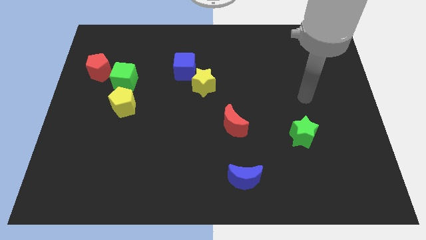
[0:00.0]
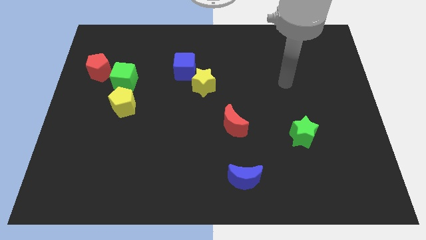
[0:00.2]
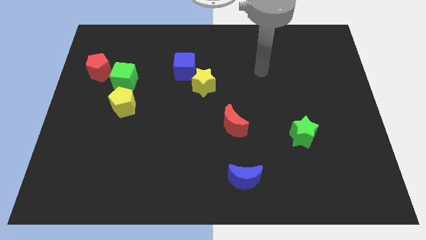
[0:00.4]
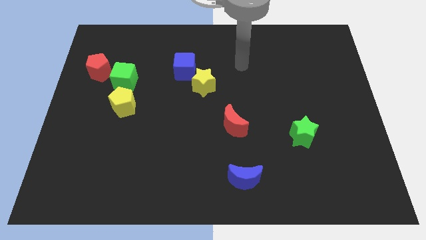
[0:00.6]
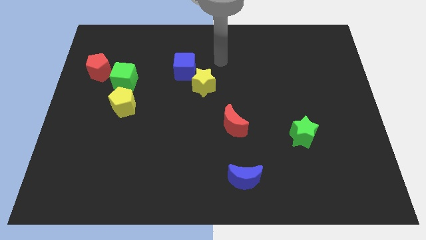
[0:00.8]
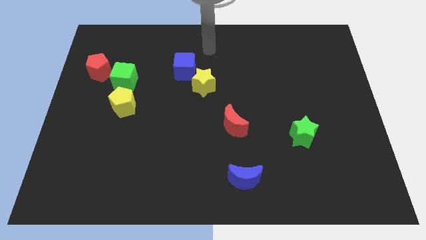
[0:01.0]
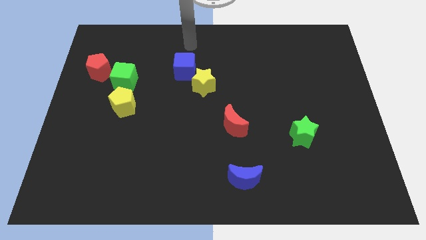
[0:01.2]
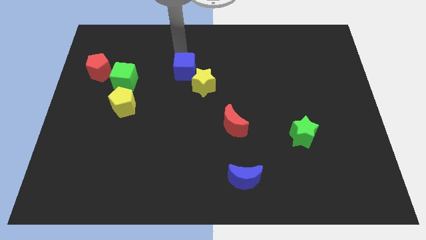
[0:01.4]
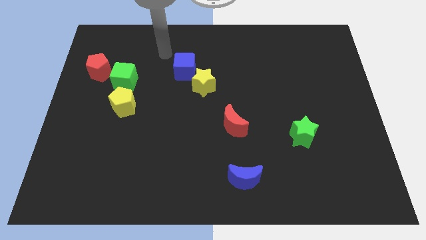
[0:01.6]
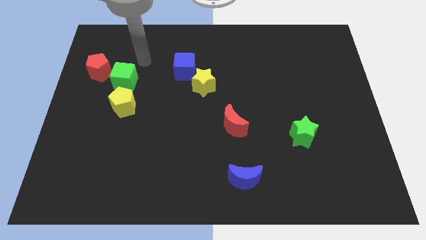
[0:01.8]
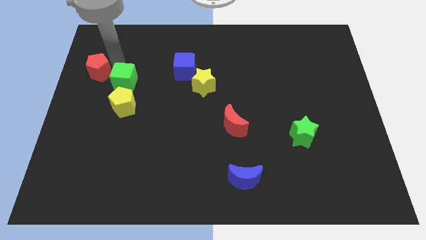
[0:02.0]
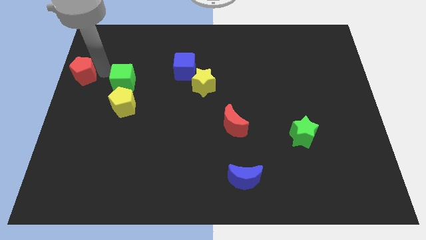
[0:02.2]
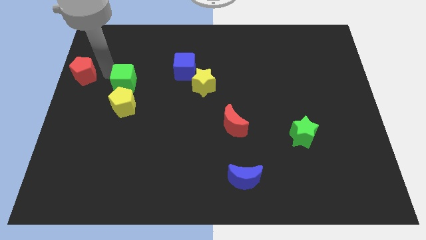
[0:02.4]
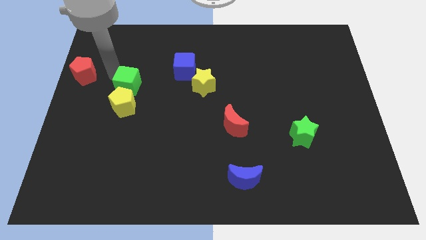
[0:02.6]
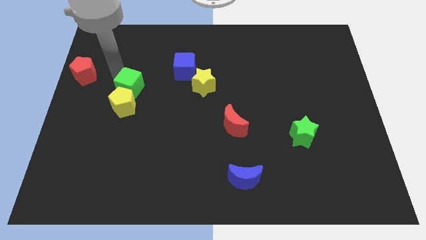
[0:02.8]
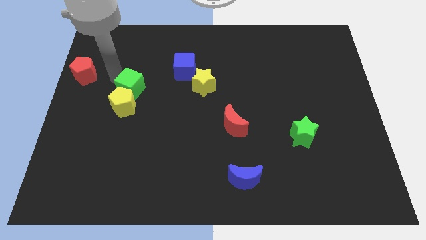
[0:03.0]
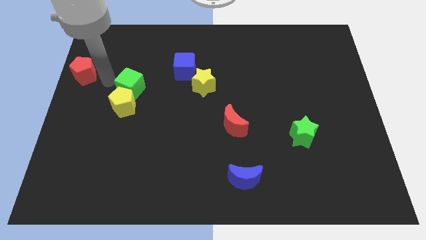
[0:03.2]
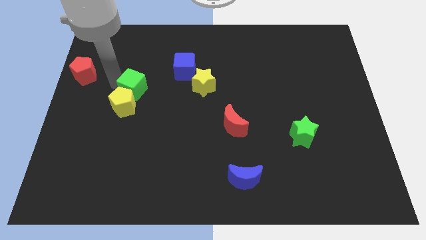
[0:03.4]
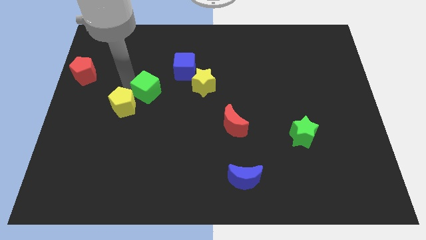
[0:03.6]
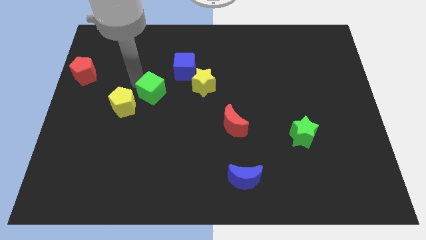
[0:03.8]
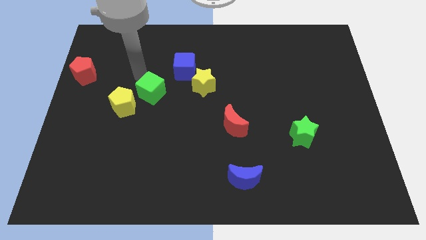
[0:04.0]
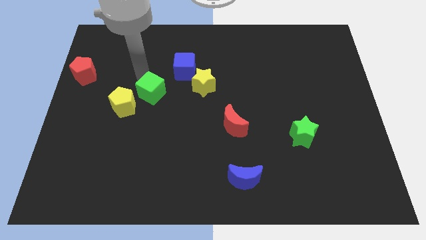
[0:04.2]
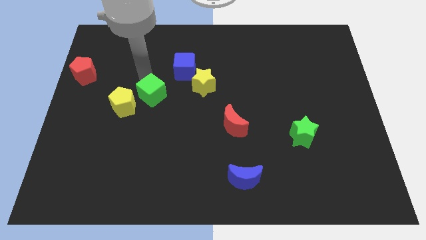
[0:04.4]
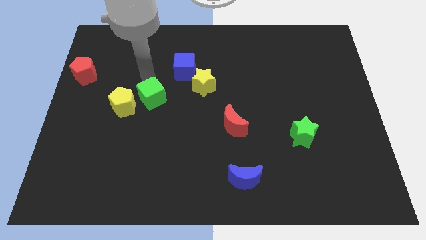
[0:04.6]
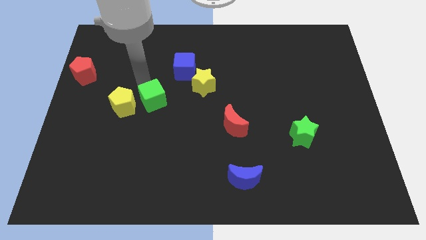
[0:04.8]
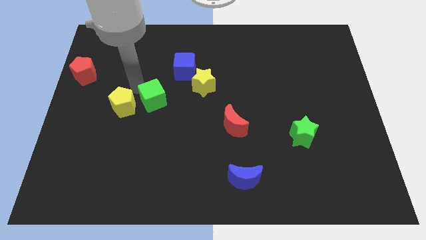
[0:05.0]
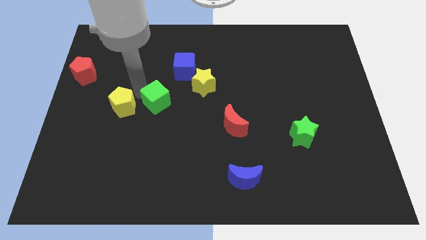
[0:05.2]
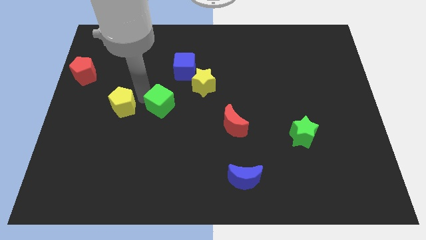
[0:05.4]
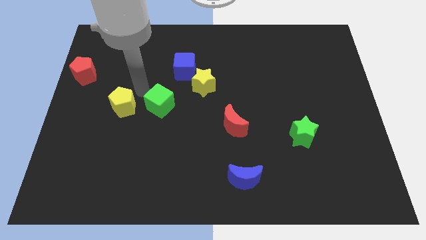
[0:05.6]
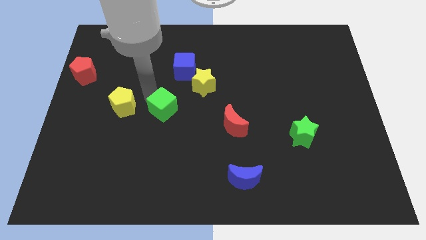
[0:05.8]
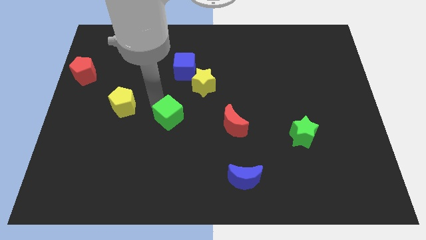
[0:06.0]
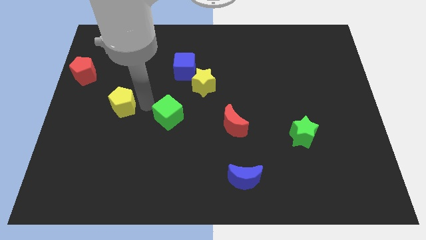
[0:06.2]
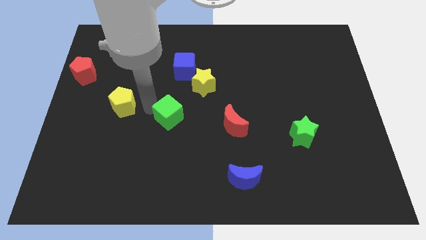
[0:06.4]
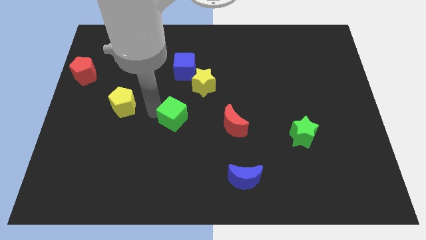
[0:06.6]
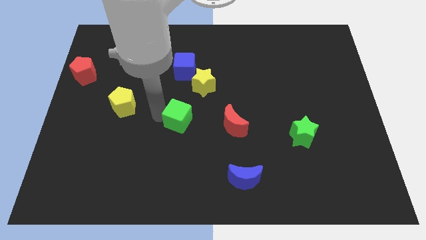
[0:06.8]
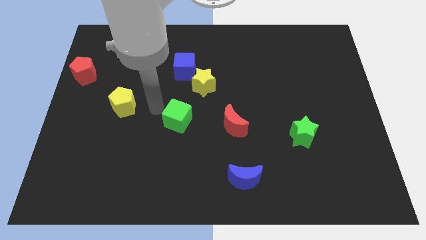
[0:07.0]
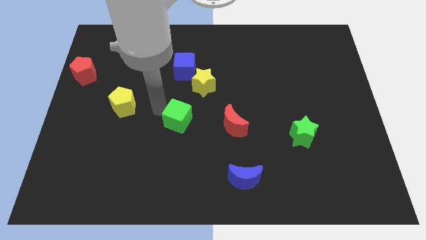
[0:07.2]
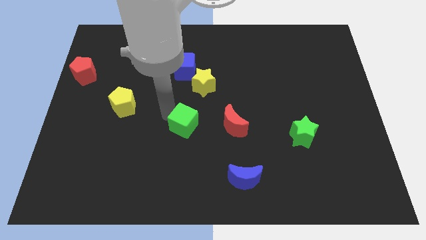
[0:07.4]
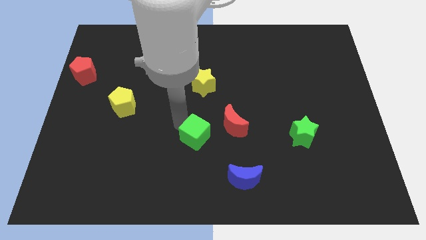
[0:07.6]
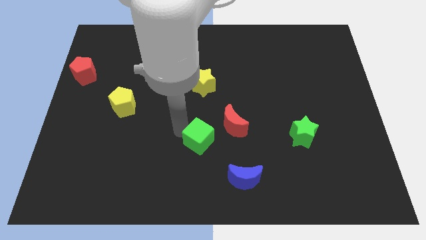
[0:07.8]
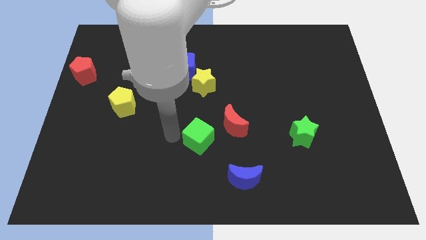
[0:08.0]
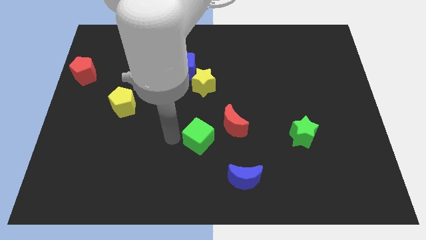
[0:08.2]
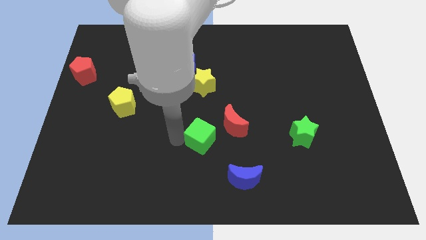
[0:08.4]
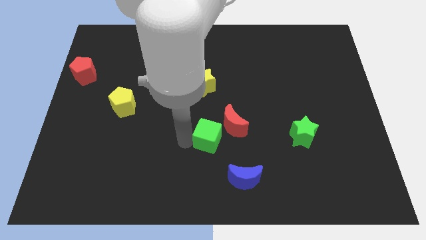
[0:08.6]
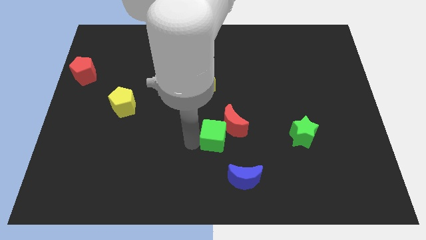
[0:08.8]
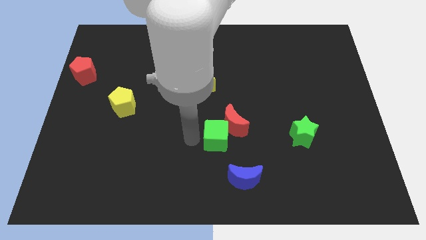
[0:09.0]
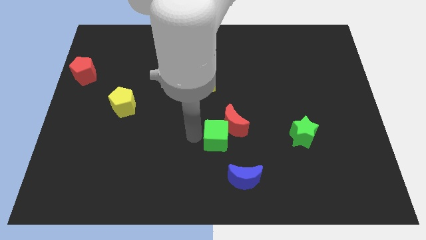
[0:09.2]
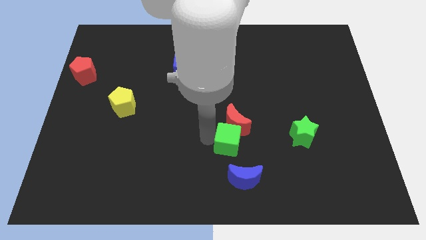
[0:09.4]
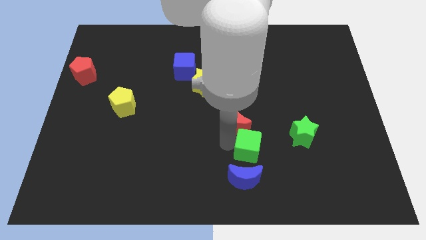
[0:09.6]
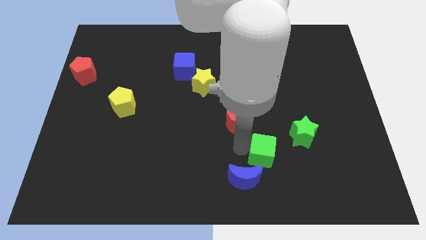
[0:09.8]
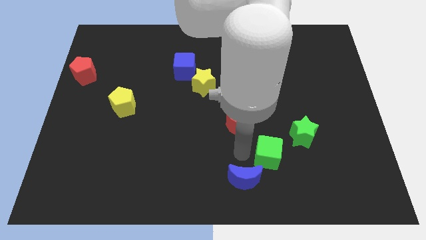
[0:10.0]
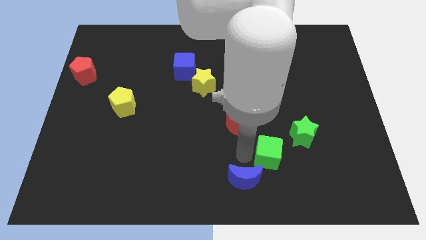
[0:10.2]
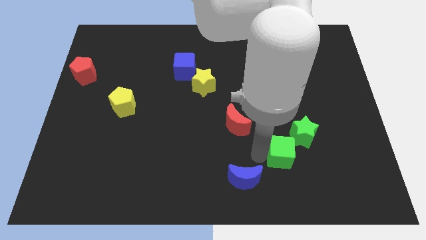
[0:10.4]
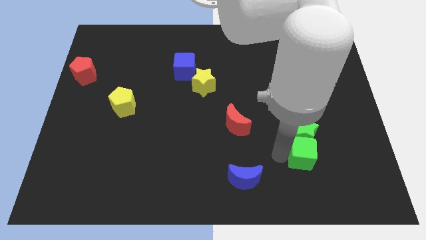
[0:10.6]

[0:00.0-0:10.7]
push the green cube diagonally down and to the right of the green star

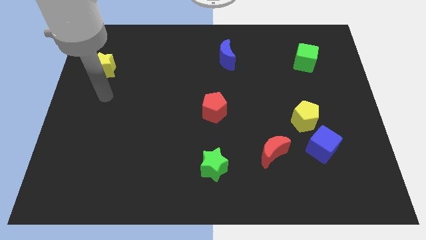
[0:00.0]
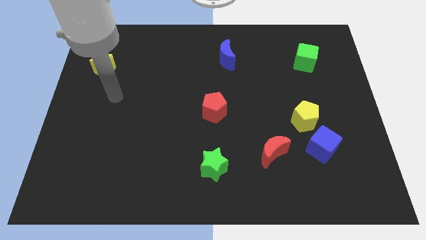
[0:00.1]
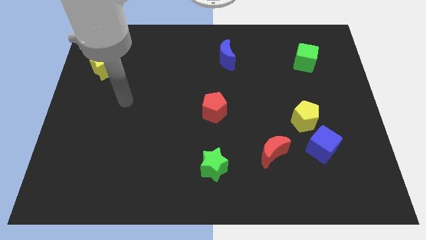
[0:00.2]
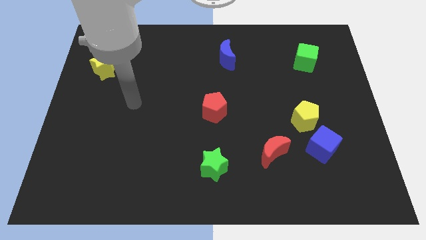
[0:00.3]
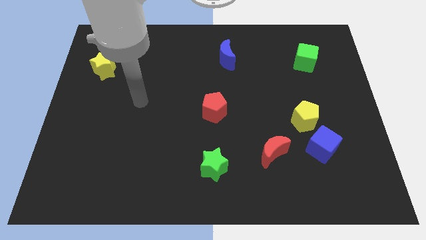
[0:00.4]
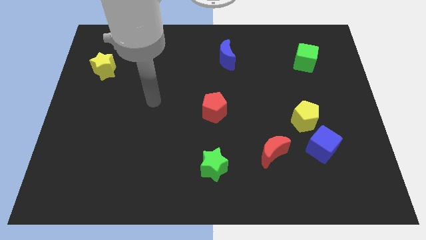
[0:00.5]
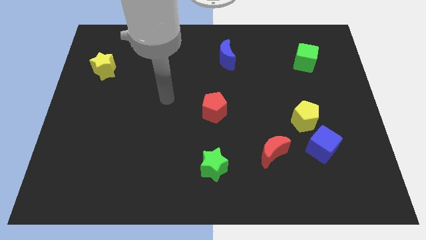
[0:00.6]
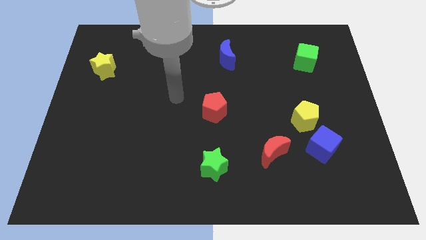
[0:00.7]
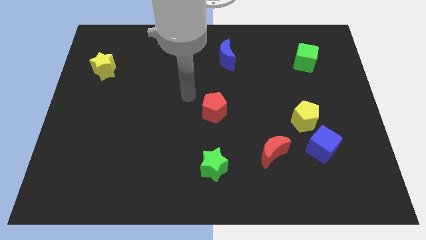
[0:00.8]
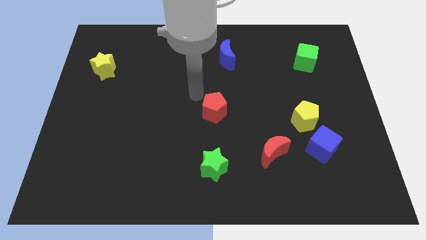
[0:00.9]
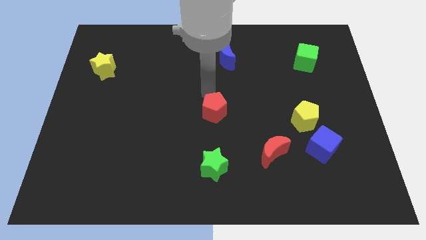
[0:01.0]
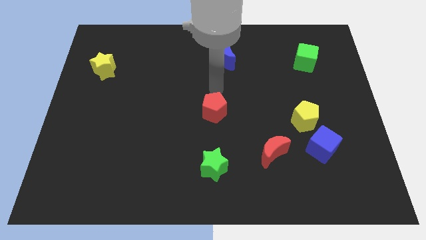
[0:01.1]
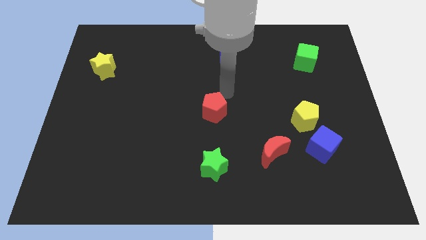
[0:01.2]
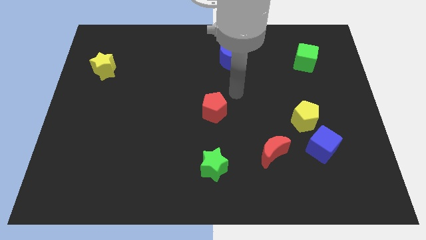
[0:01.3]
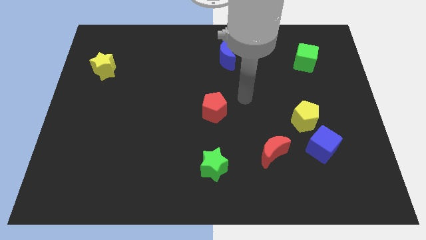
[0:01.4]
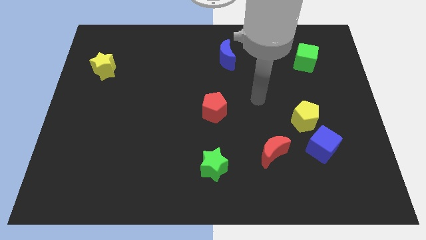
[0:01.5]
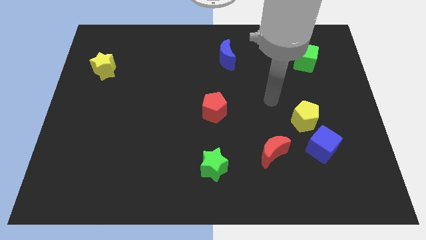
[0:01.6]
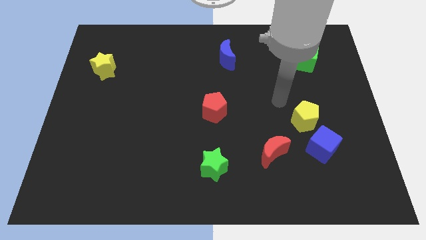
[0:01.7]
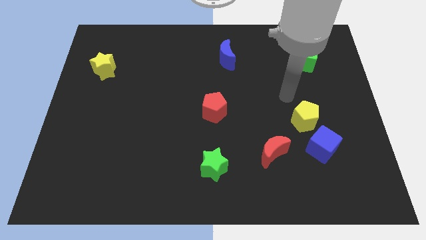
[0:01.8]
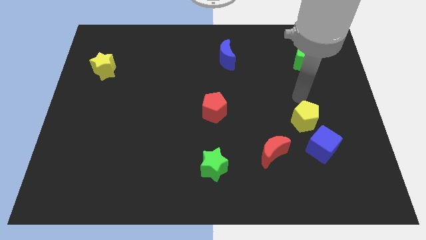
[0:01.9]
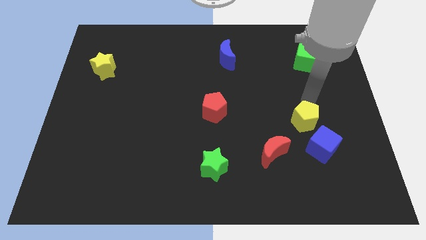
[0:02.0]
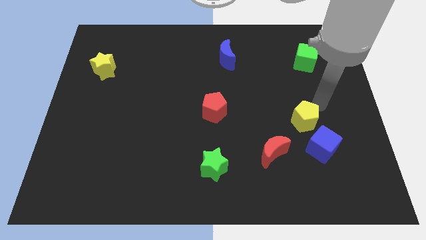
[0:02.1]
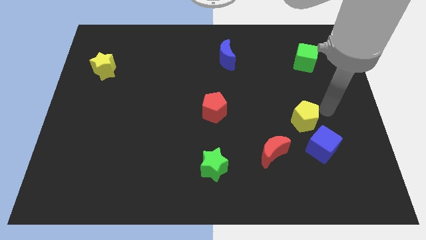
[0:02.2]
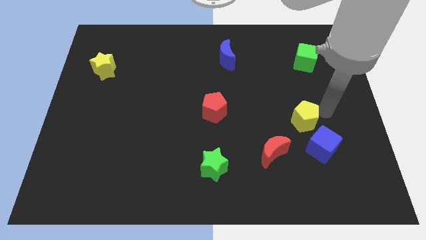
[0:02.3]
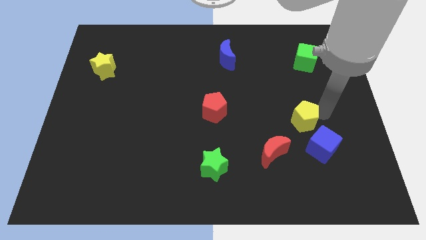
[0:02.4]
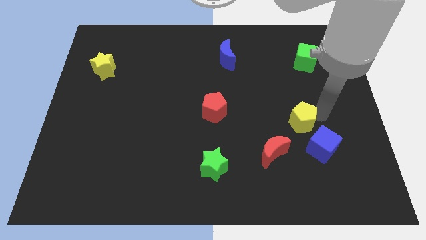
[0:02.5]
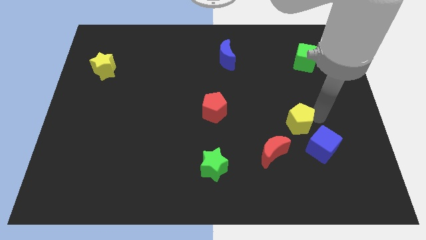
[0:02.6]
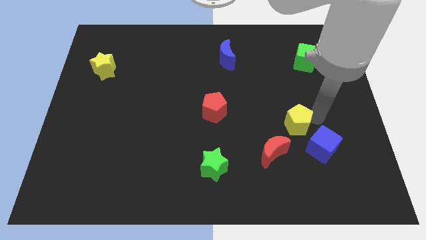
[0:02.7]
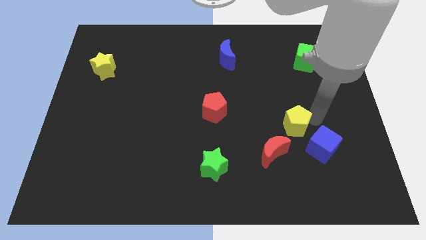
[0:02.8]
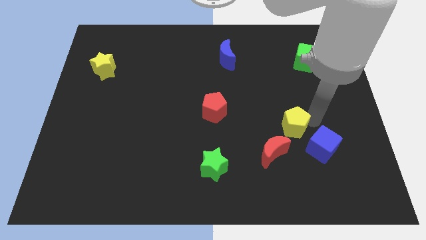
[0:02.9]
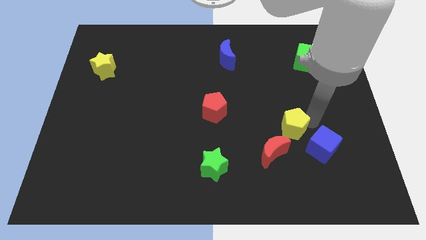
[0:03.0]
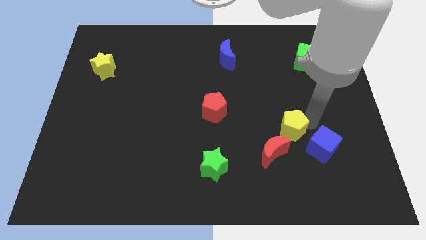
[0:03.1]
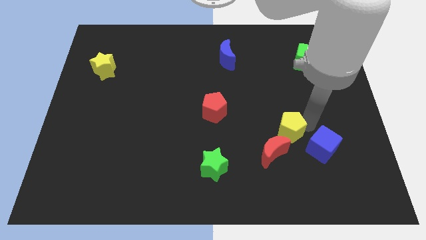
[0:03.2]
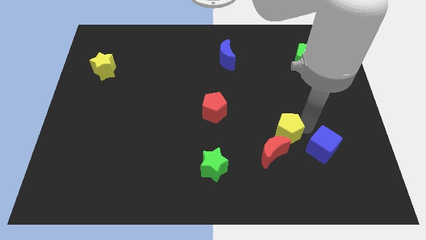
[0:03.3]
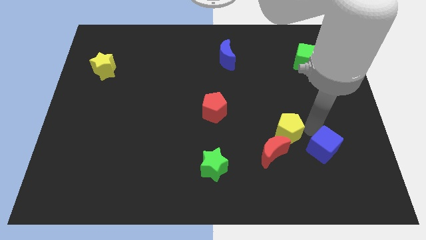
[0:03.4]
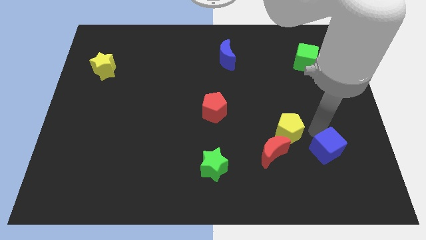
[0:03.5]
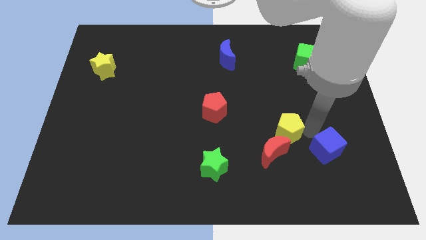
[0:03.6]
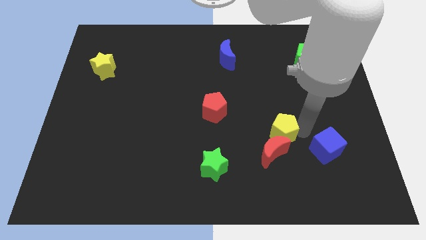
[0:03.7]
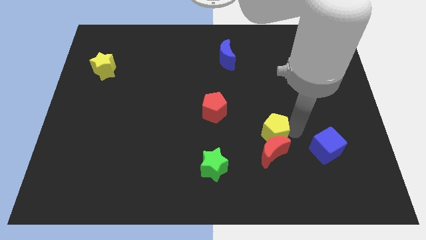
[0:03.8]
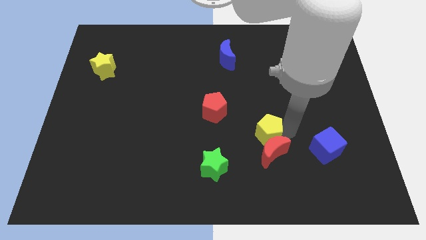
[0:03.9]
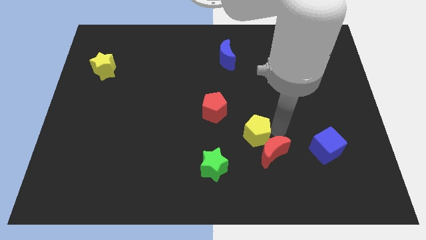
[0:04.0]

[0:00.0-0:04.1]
move the yellow pentagon diagonally up and to the right of the green star
